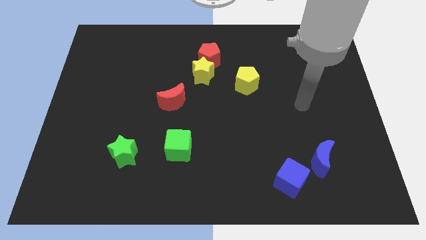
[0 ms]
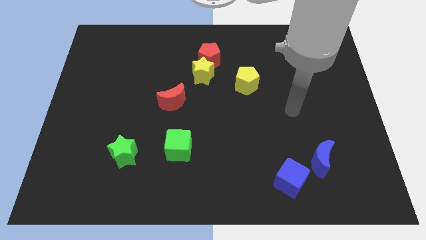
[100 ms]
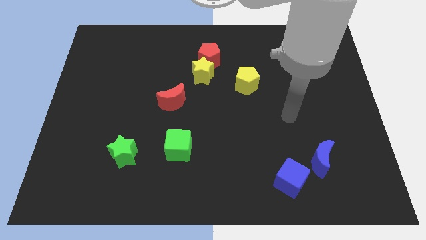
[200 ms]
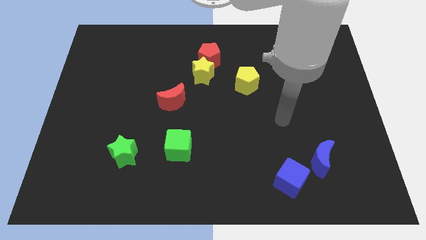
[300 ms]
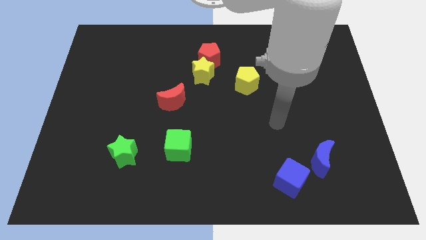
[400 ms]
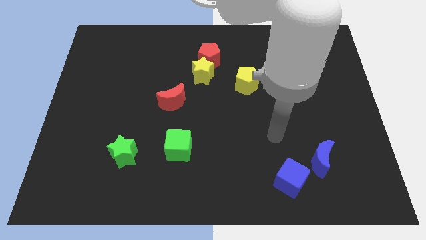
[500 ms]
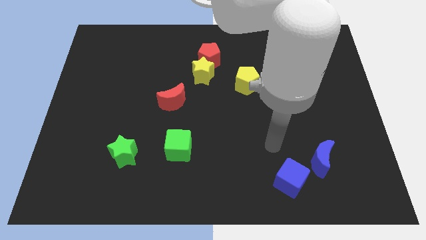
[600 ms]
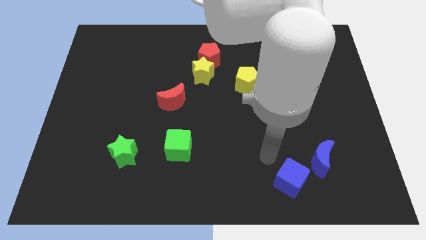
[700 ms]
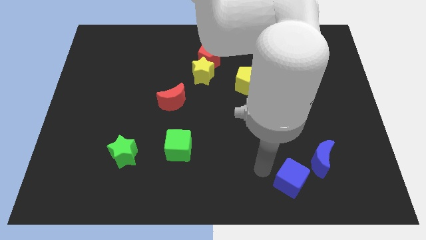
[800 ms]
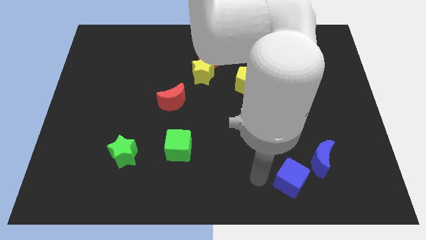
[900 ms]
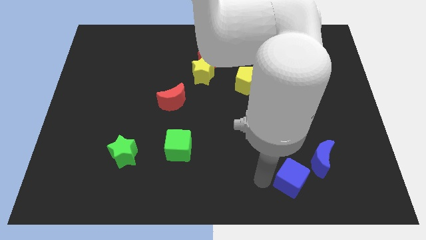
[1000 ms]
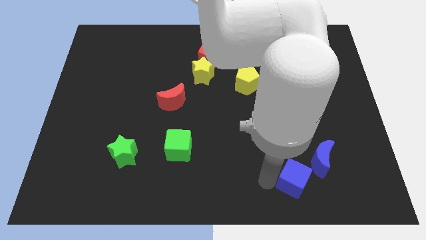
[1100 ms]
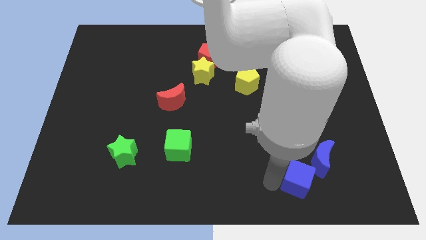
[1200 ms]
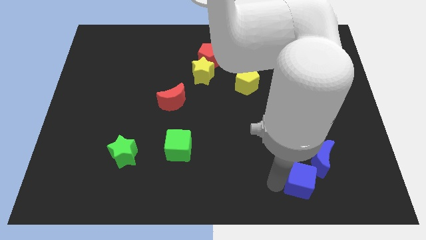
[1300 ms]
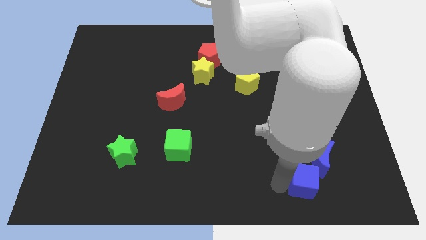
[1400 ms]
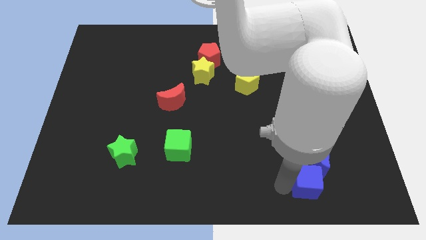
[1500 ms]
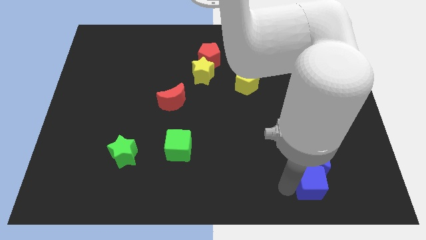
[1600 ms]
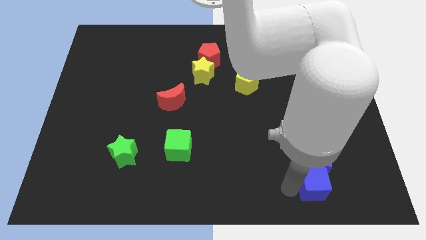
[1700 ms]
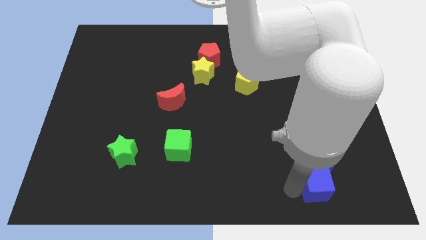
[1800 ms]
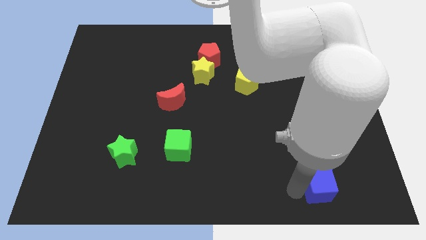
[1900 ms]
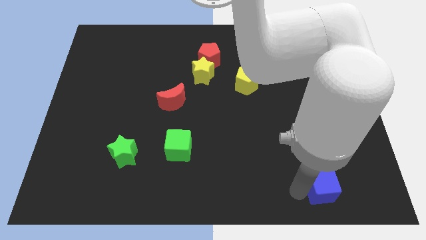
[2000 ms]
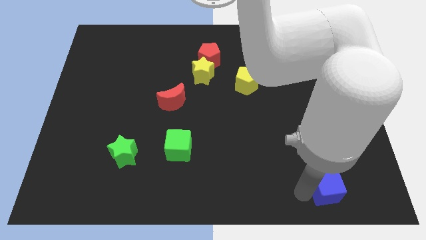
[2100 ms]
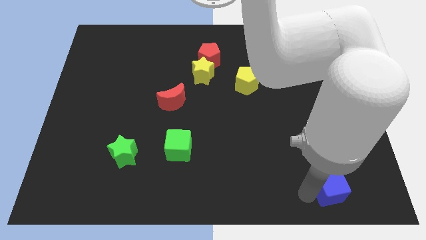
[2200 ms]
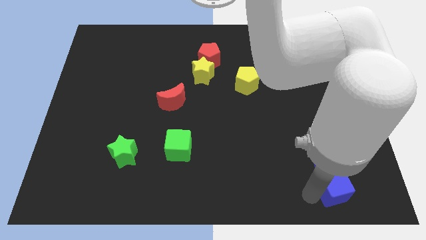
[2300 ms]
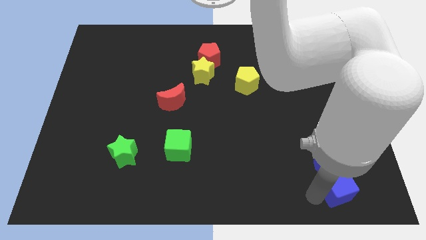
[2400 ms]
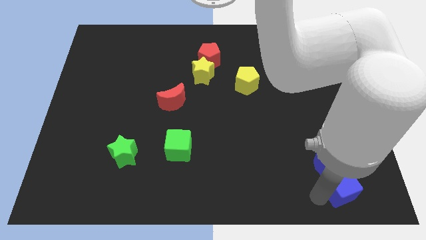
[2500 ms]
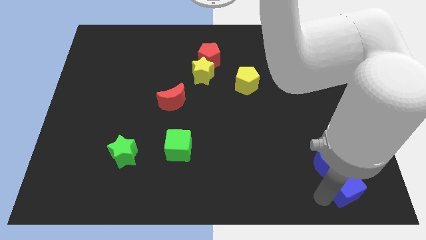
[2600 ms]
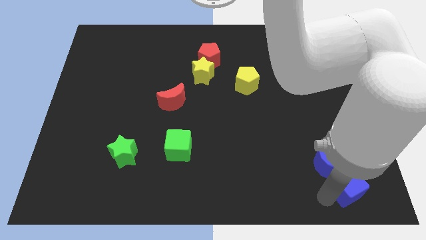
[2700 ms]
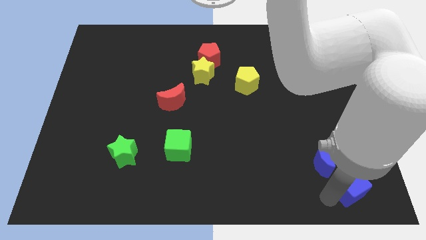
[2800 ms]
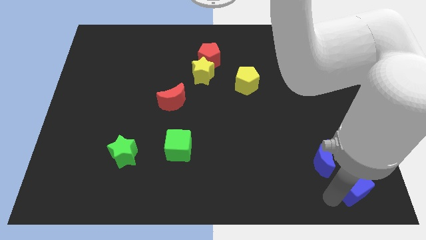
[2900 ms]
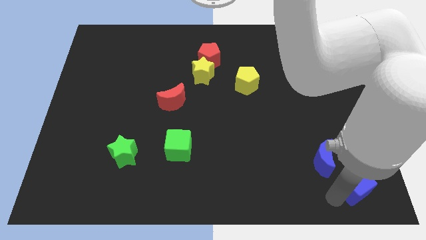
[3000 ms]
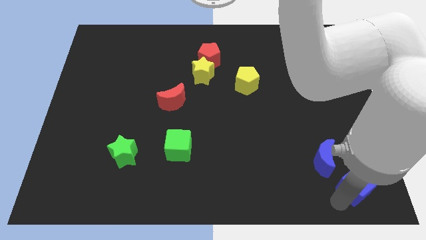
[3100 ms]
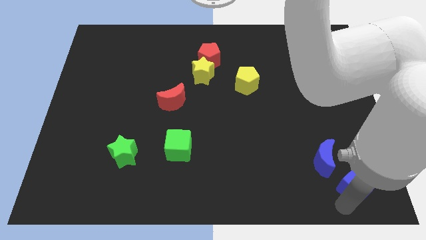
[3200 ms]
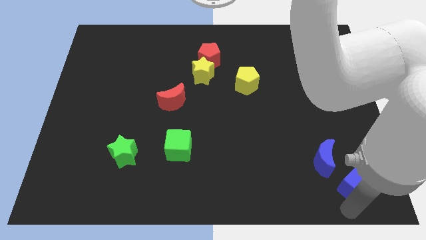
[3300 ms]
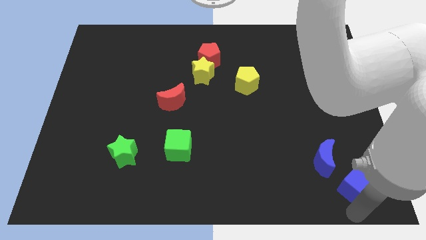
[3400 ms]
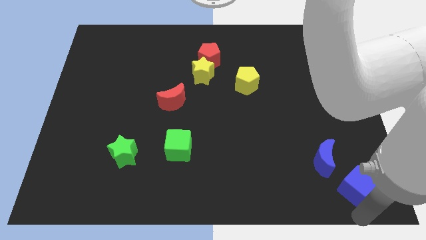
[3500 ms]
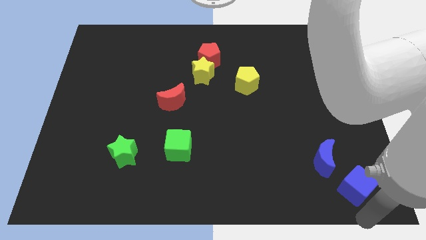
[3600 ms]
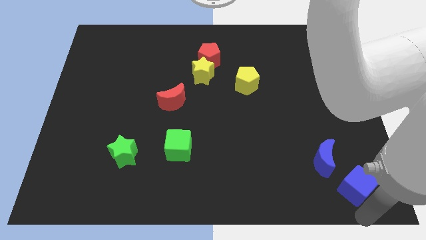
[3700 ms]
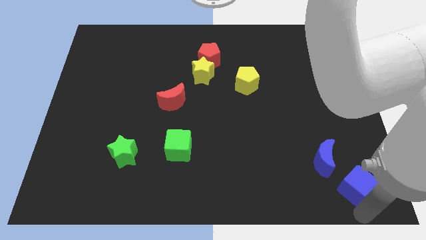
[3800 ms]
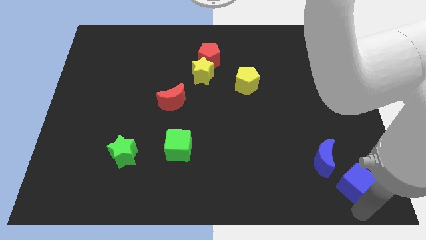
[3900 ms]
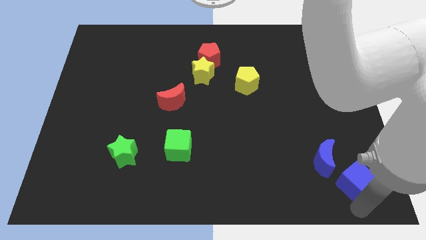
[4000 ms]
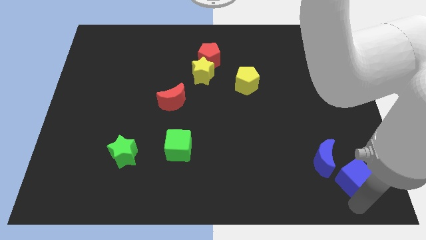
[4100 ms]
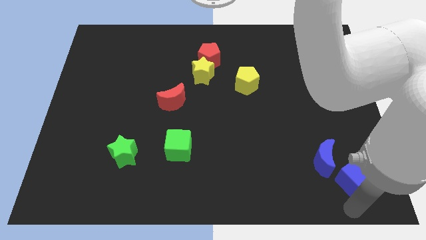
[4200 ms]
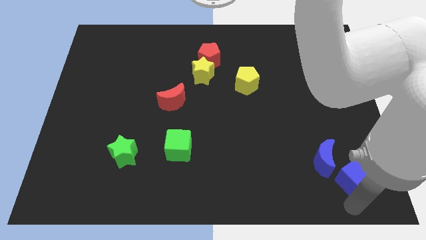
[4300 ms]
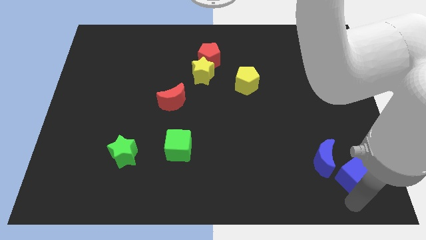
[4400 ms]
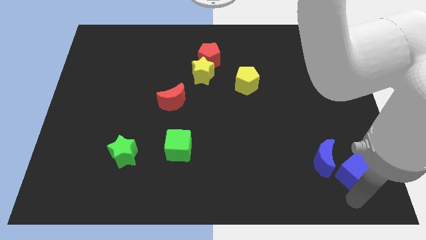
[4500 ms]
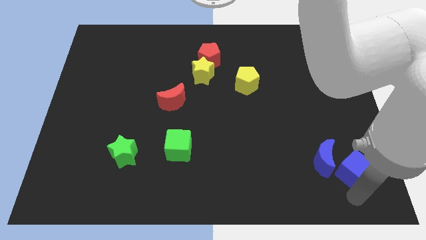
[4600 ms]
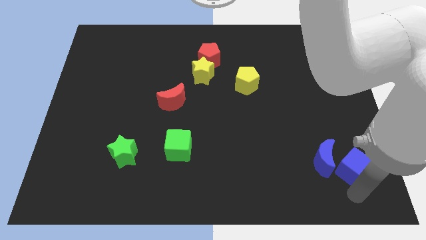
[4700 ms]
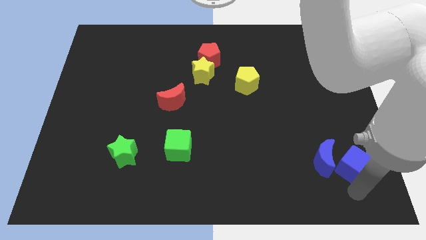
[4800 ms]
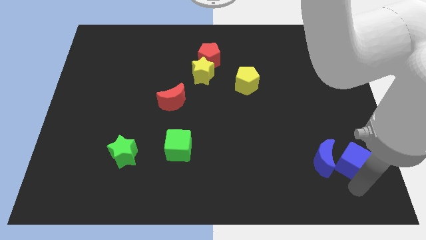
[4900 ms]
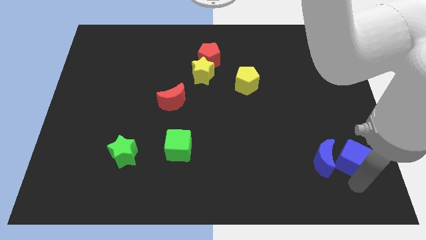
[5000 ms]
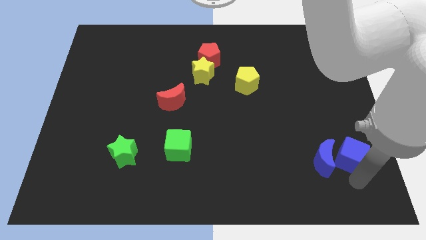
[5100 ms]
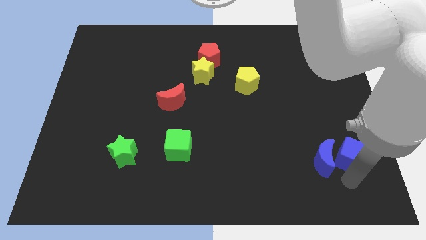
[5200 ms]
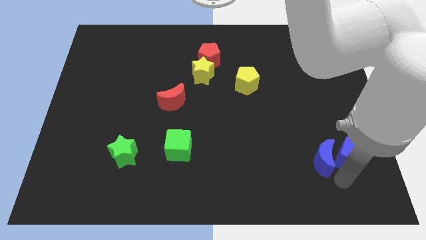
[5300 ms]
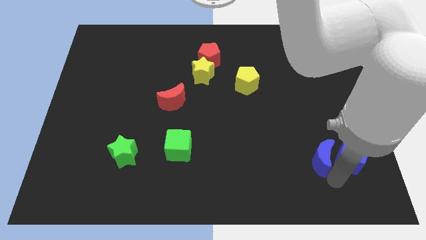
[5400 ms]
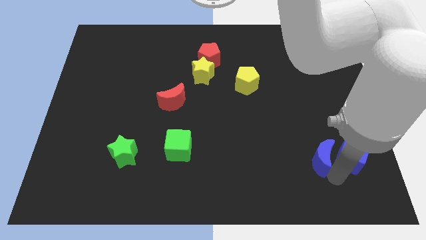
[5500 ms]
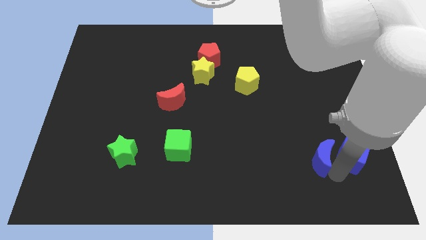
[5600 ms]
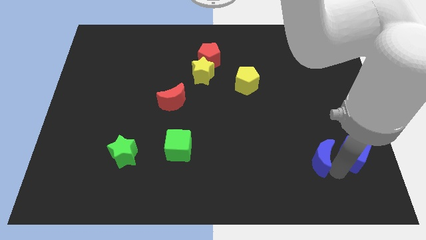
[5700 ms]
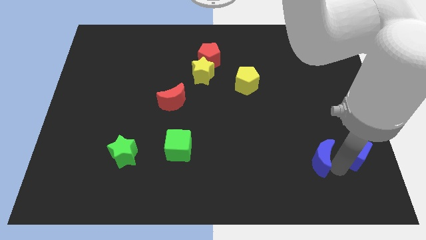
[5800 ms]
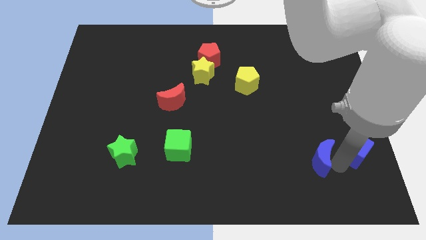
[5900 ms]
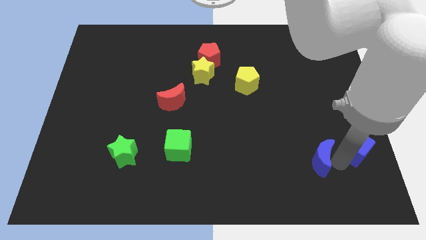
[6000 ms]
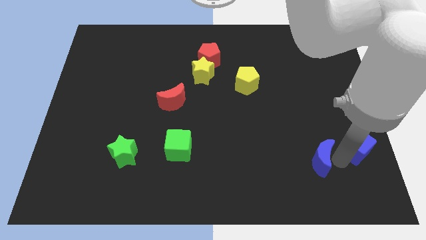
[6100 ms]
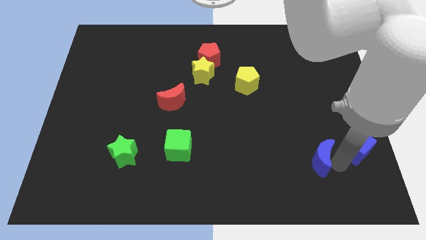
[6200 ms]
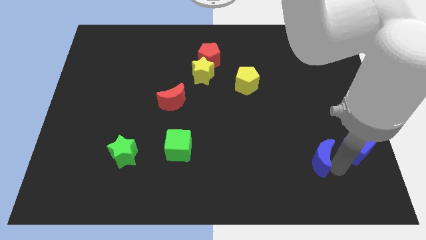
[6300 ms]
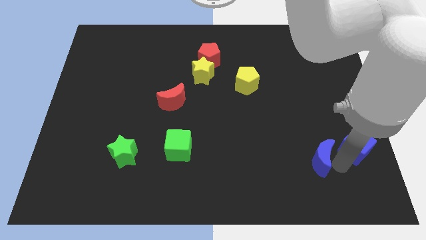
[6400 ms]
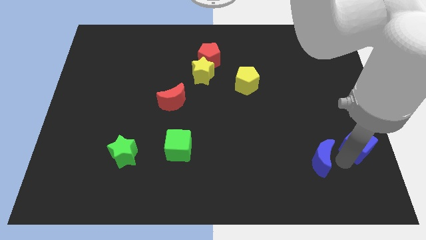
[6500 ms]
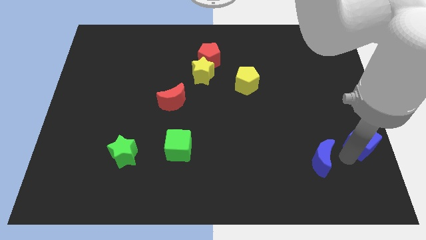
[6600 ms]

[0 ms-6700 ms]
put the blue cube to the right side
